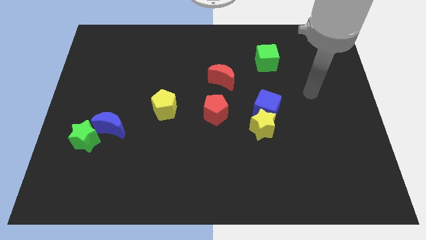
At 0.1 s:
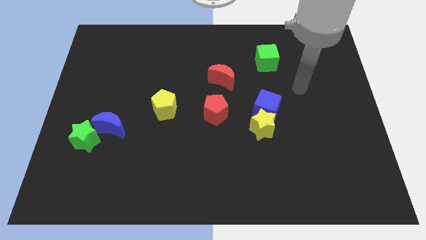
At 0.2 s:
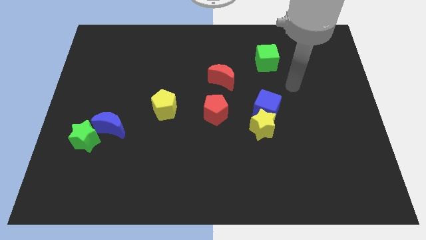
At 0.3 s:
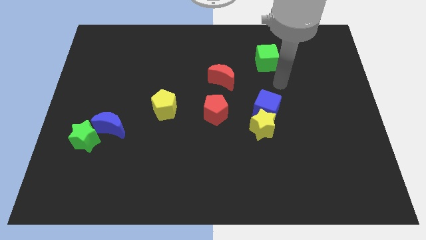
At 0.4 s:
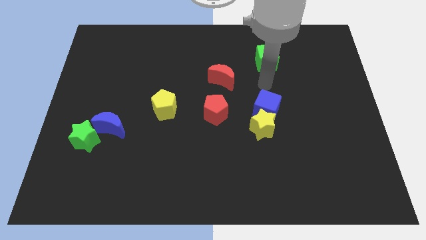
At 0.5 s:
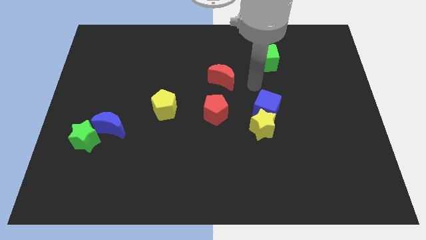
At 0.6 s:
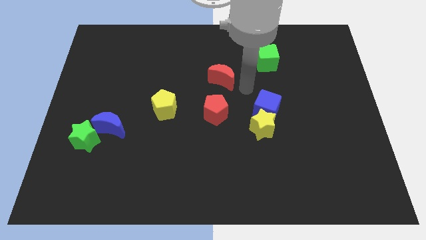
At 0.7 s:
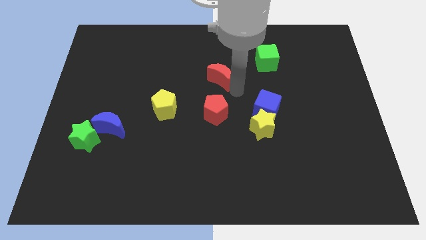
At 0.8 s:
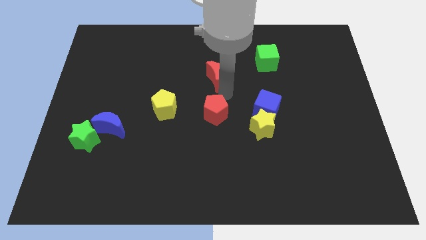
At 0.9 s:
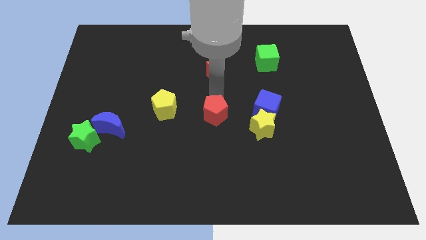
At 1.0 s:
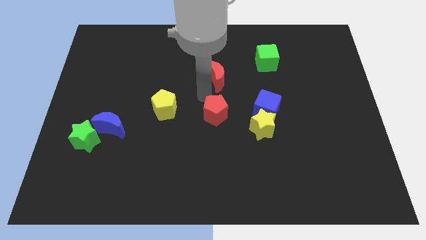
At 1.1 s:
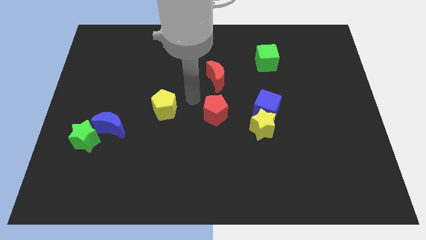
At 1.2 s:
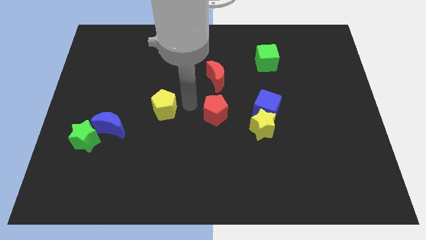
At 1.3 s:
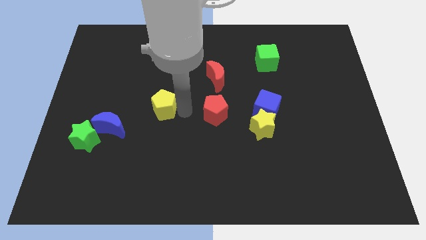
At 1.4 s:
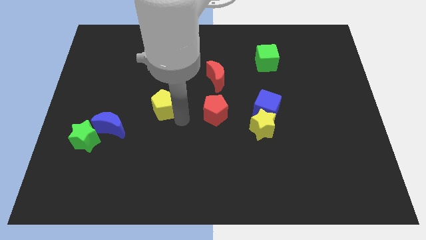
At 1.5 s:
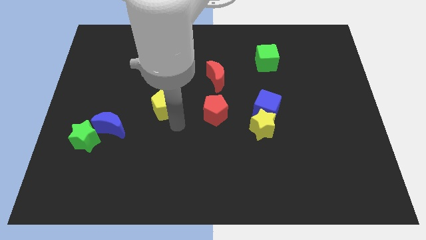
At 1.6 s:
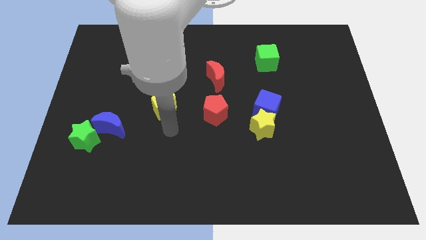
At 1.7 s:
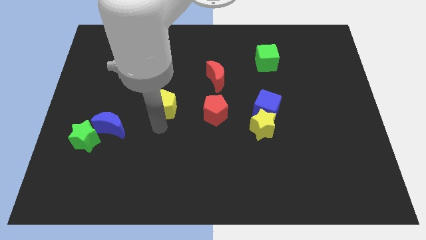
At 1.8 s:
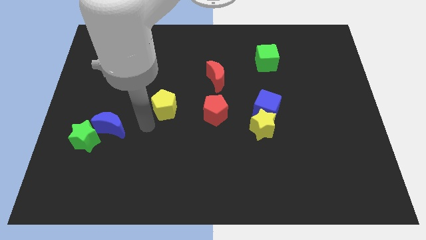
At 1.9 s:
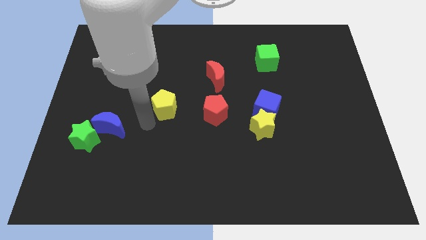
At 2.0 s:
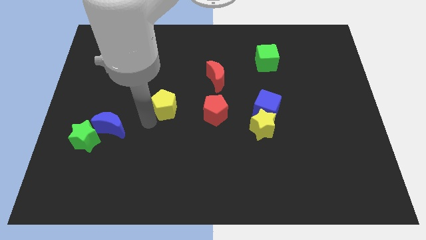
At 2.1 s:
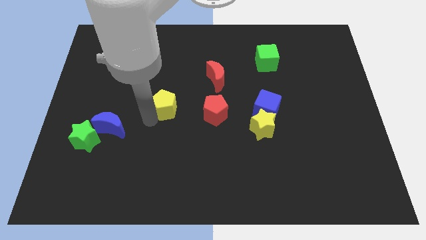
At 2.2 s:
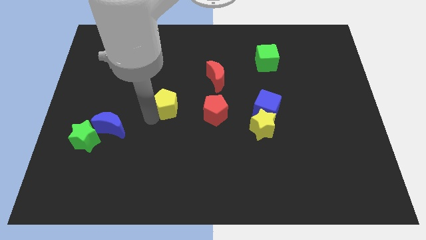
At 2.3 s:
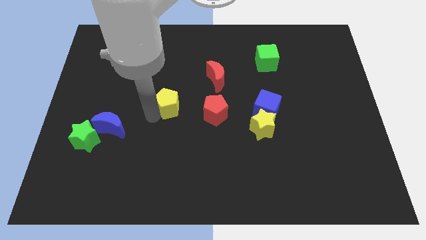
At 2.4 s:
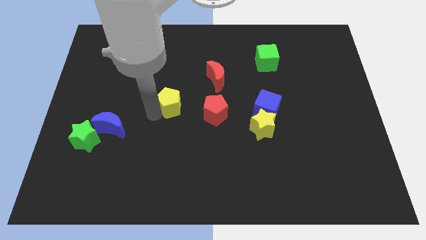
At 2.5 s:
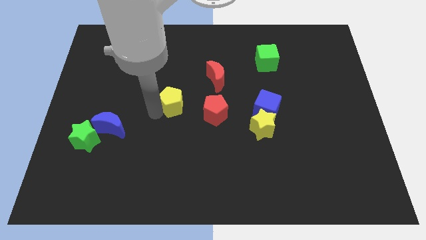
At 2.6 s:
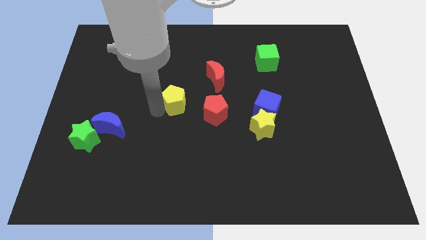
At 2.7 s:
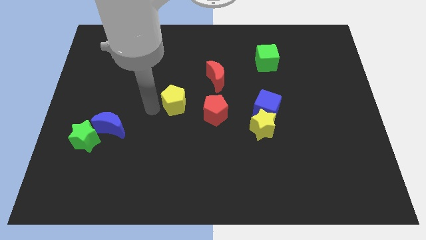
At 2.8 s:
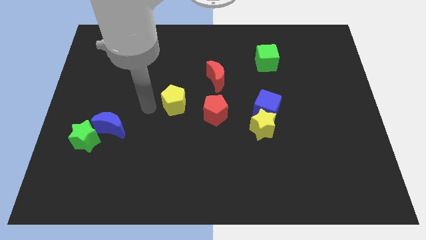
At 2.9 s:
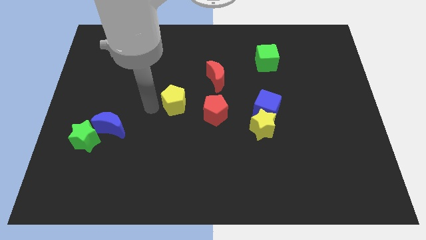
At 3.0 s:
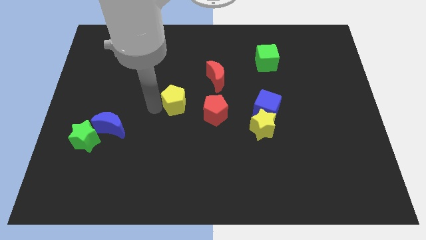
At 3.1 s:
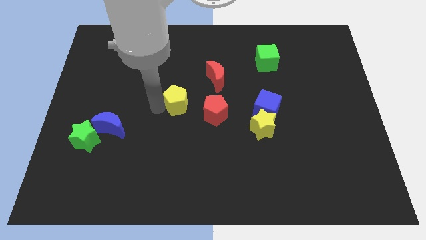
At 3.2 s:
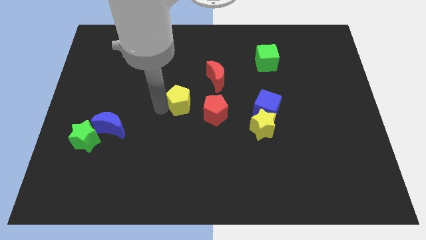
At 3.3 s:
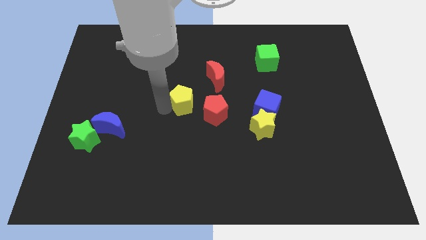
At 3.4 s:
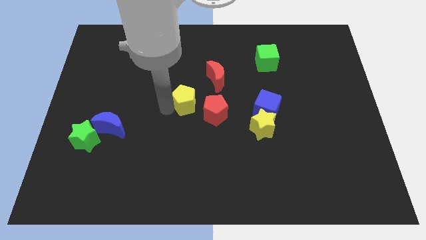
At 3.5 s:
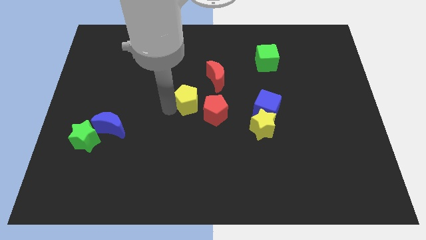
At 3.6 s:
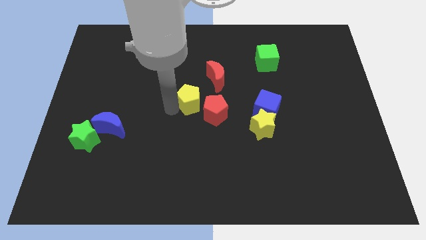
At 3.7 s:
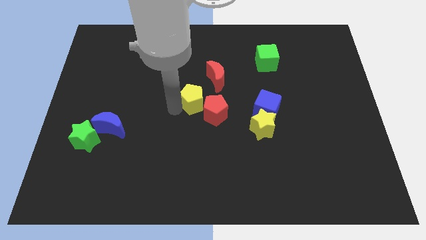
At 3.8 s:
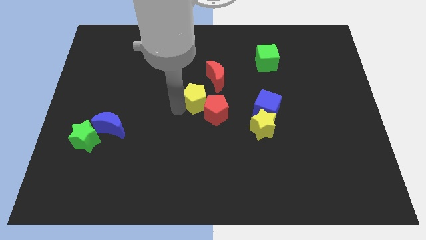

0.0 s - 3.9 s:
push the yellow pentagon somewhat right

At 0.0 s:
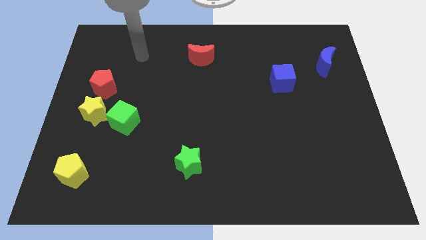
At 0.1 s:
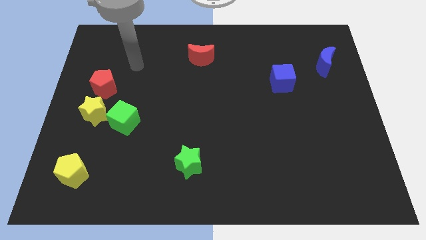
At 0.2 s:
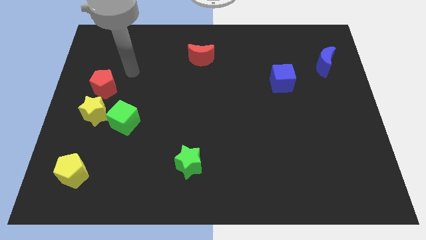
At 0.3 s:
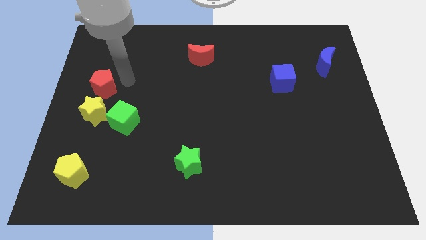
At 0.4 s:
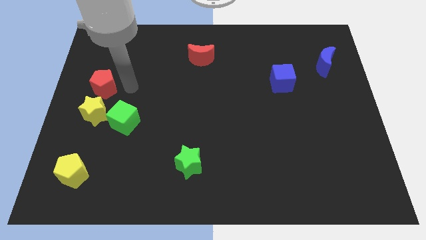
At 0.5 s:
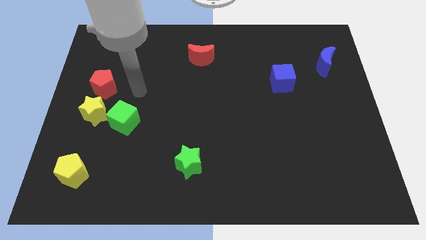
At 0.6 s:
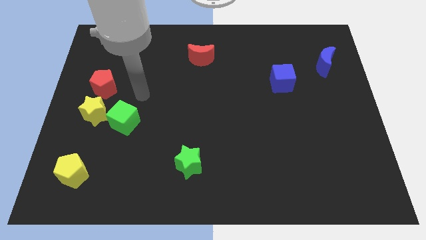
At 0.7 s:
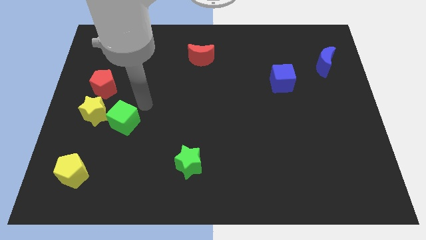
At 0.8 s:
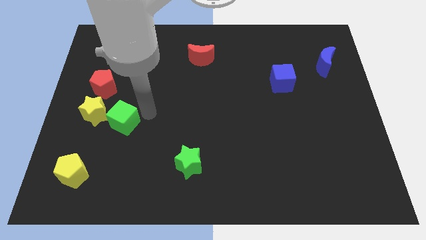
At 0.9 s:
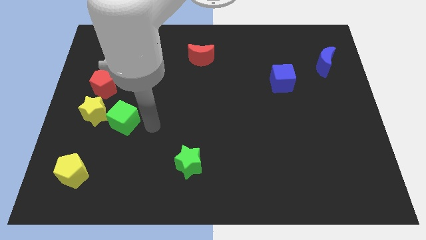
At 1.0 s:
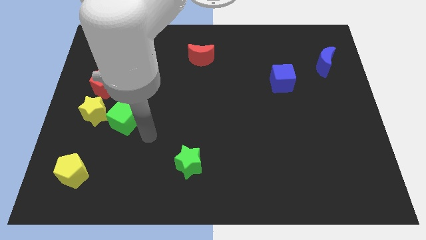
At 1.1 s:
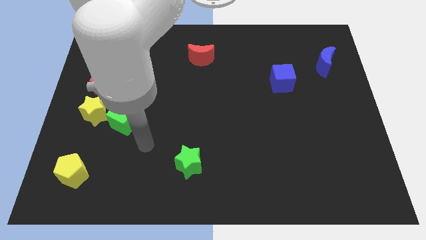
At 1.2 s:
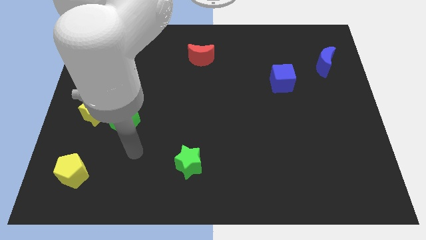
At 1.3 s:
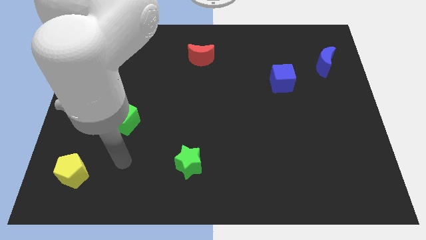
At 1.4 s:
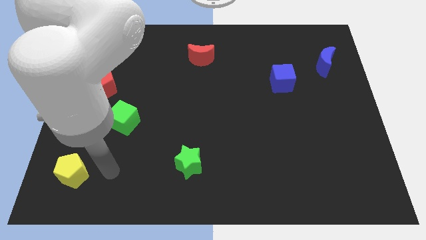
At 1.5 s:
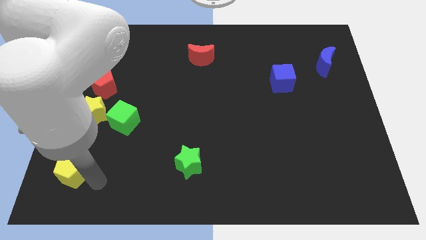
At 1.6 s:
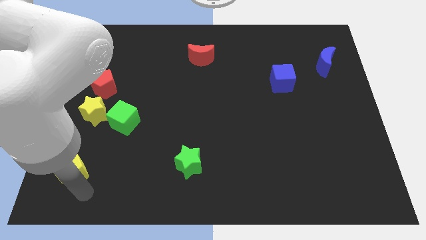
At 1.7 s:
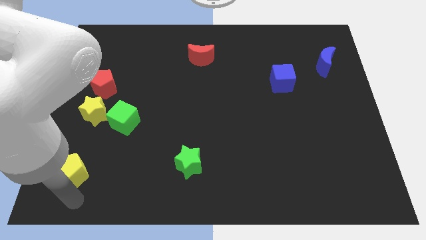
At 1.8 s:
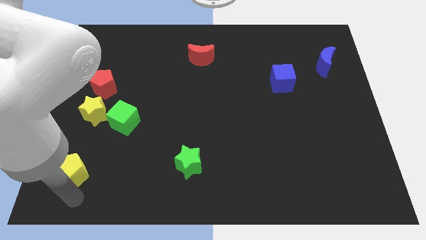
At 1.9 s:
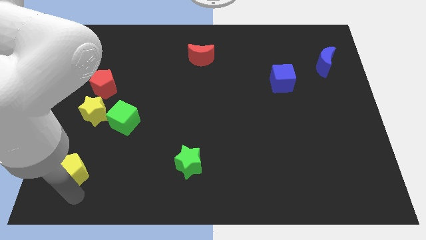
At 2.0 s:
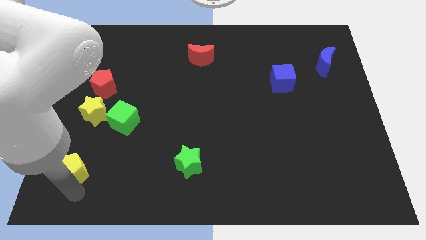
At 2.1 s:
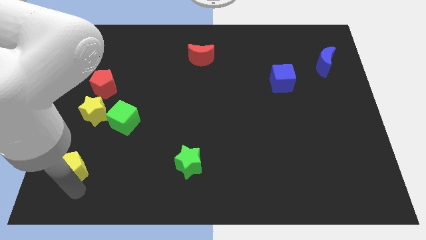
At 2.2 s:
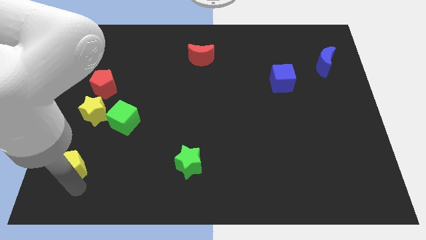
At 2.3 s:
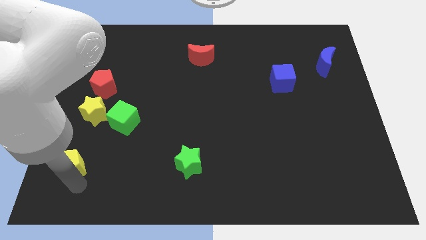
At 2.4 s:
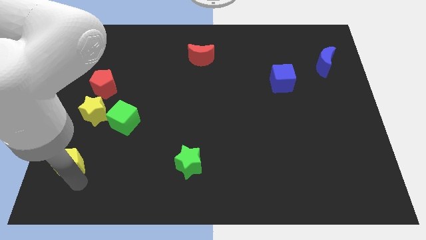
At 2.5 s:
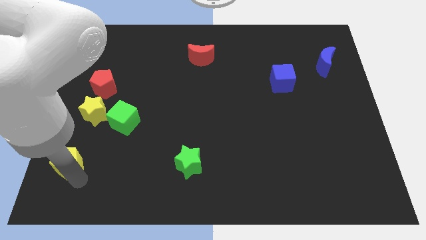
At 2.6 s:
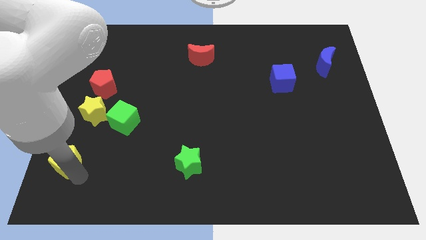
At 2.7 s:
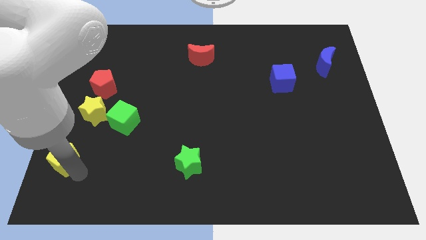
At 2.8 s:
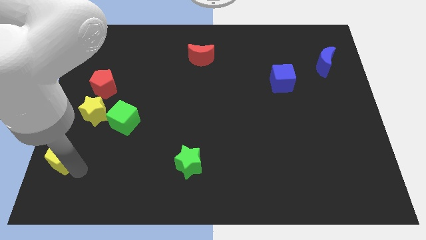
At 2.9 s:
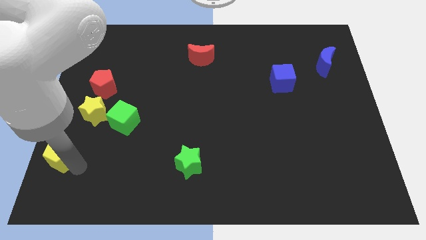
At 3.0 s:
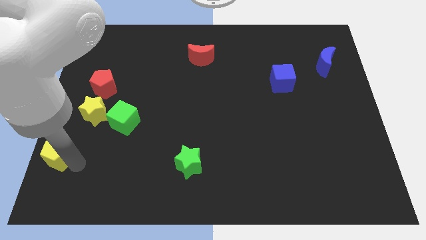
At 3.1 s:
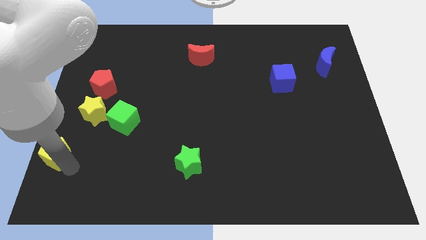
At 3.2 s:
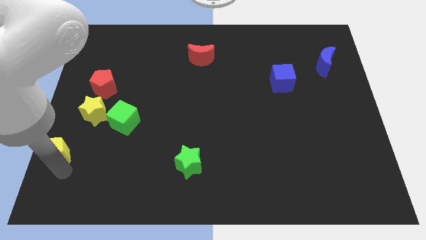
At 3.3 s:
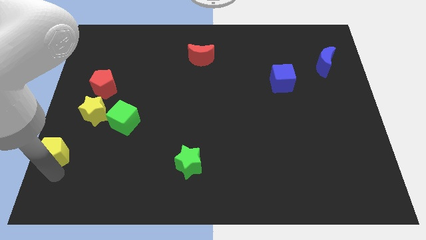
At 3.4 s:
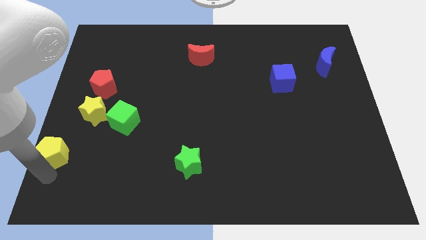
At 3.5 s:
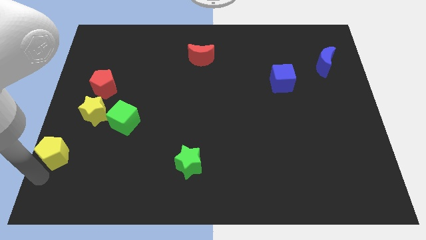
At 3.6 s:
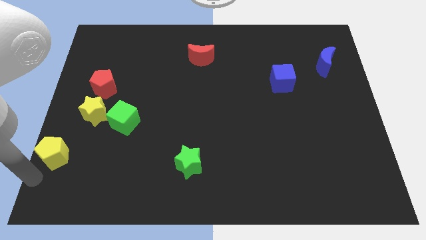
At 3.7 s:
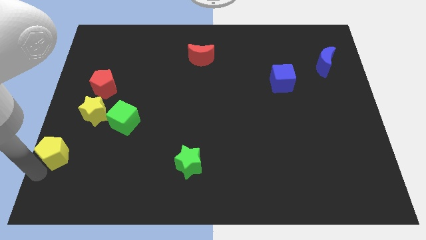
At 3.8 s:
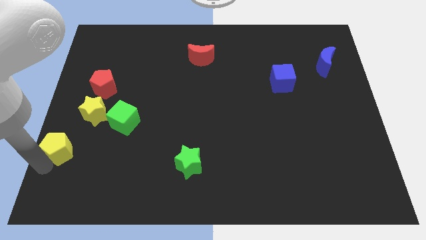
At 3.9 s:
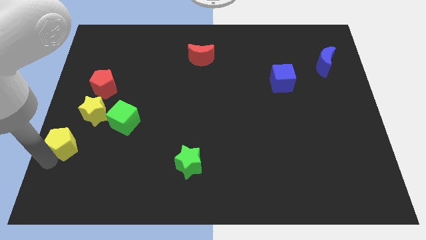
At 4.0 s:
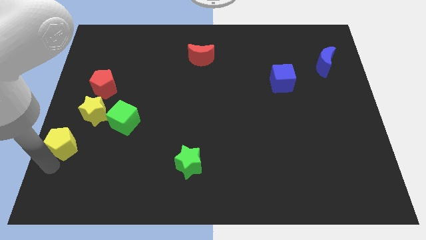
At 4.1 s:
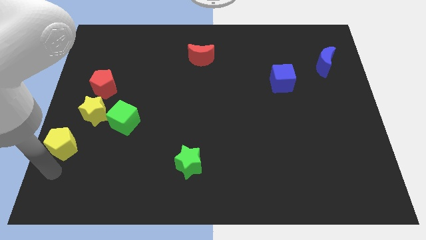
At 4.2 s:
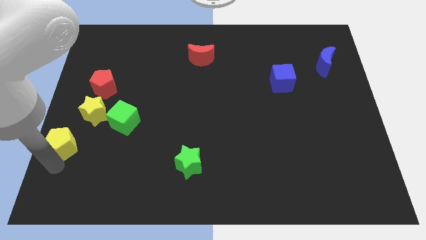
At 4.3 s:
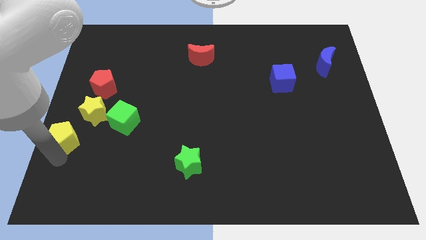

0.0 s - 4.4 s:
slide the yellow pentagon a little up
